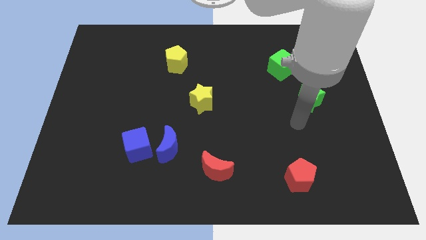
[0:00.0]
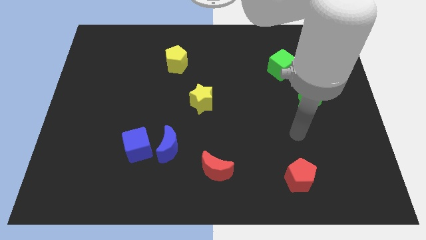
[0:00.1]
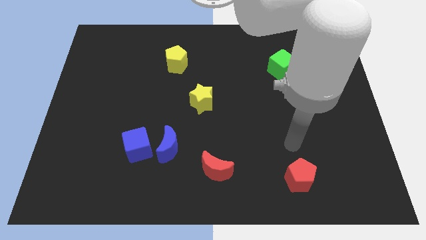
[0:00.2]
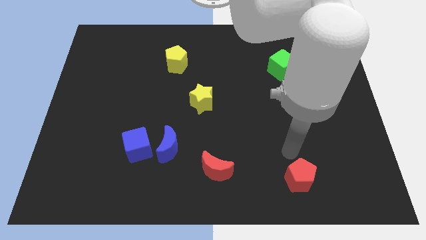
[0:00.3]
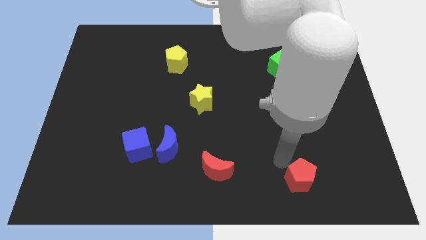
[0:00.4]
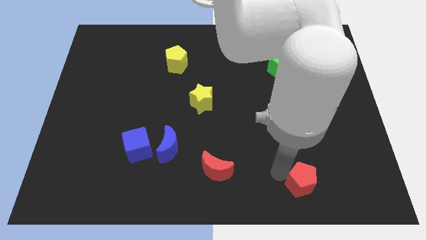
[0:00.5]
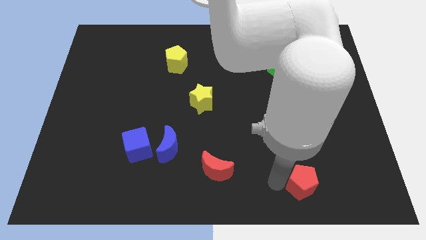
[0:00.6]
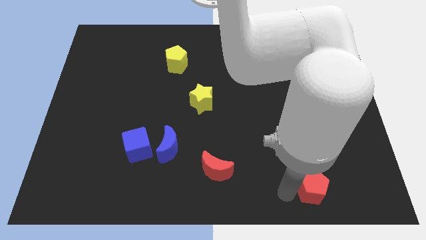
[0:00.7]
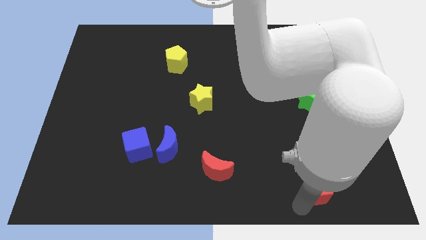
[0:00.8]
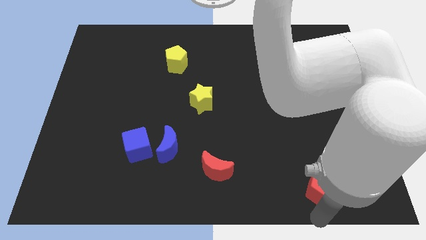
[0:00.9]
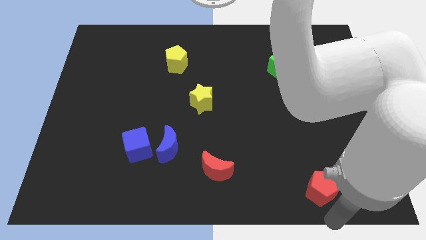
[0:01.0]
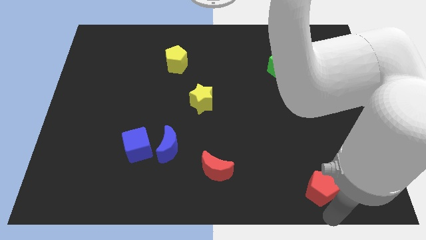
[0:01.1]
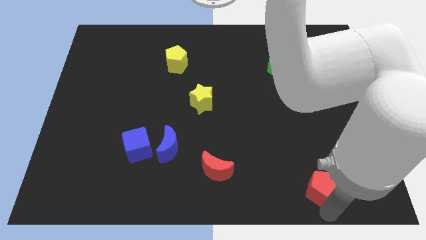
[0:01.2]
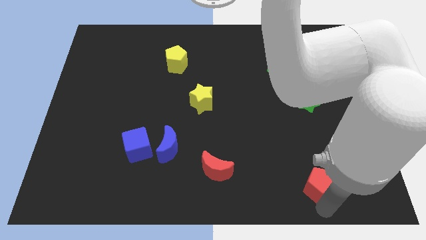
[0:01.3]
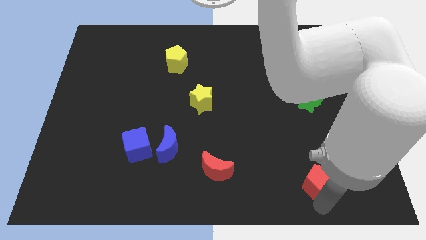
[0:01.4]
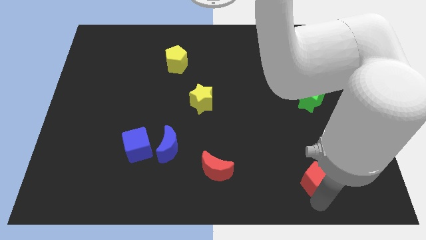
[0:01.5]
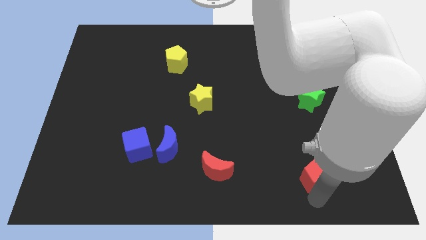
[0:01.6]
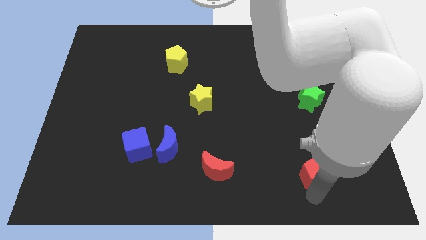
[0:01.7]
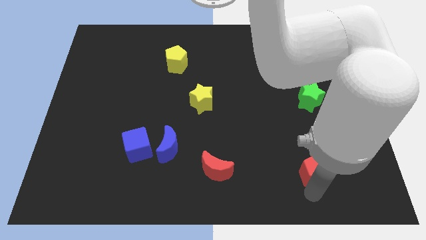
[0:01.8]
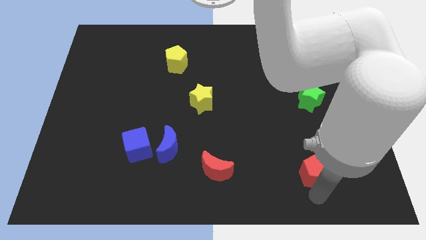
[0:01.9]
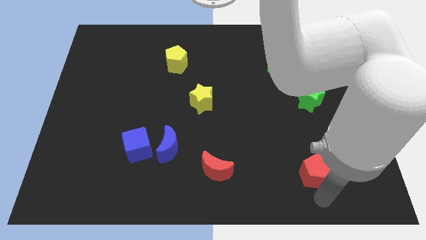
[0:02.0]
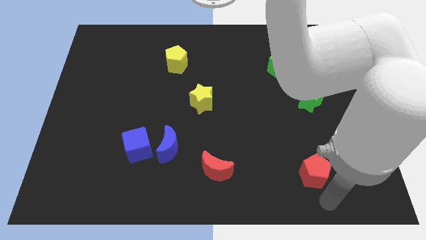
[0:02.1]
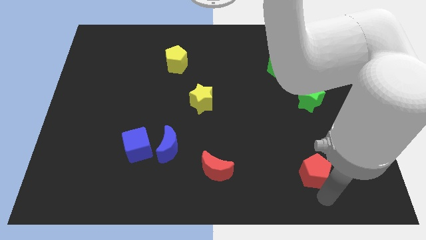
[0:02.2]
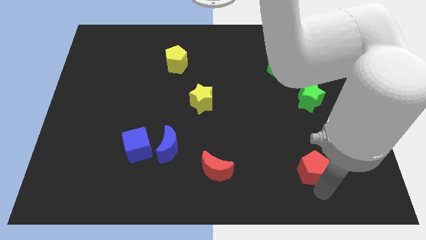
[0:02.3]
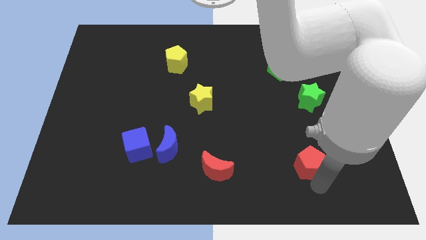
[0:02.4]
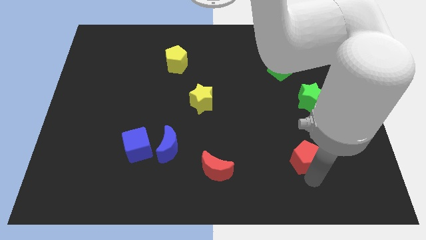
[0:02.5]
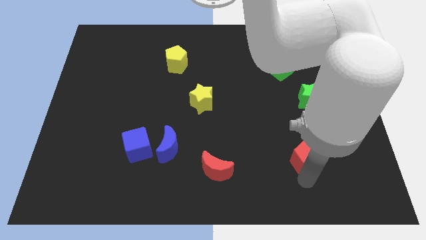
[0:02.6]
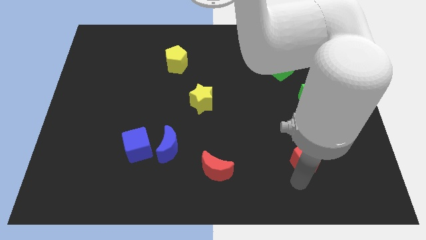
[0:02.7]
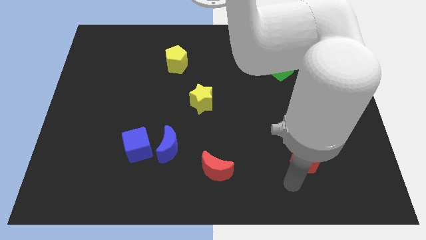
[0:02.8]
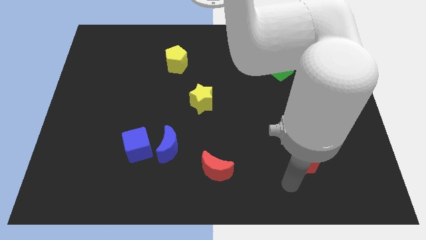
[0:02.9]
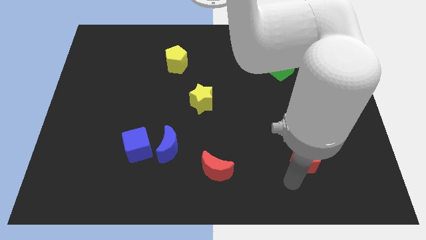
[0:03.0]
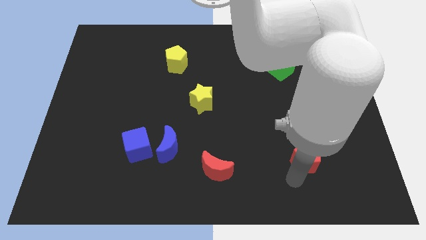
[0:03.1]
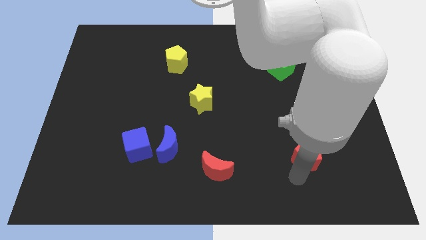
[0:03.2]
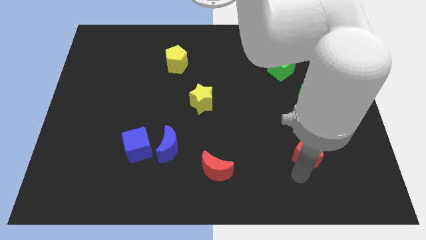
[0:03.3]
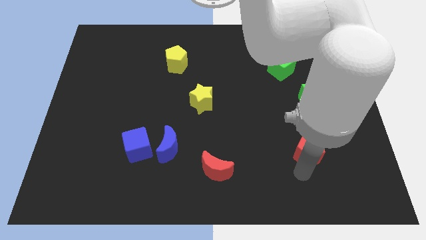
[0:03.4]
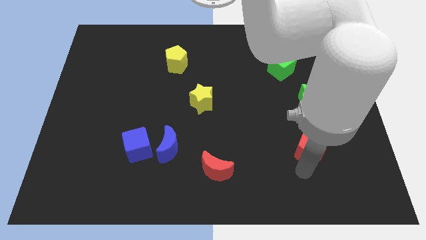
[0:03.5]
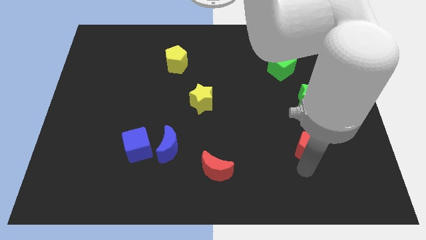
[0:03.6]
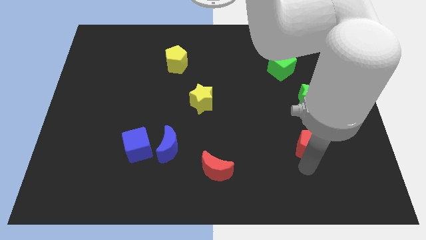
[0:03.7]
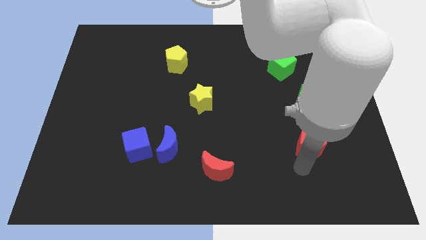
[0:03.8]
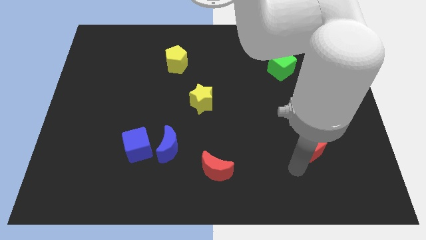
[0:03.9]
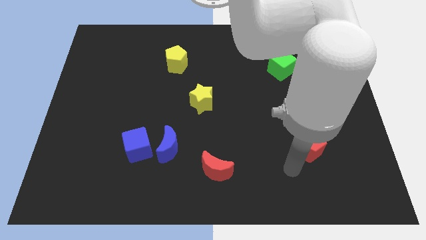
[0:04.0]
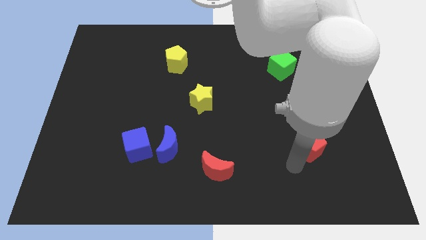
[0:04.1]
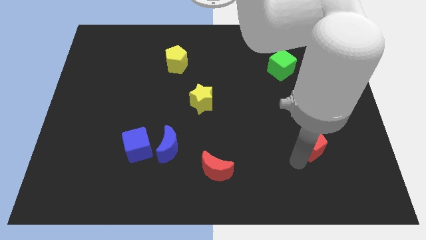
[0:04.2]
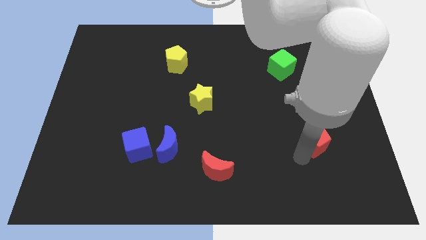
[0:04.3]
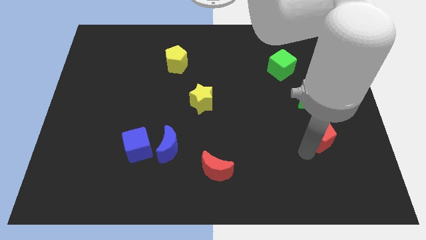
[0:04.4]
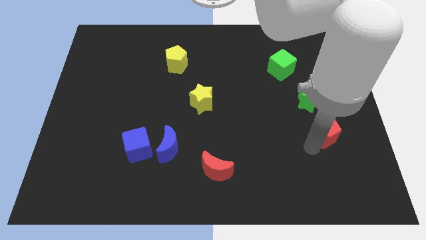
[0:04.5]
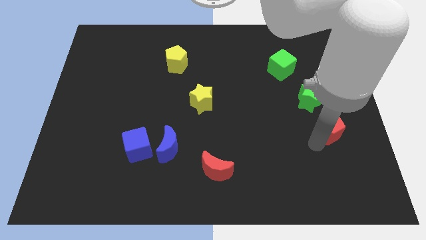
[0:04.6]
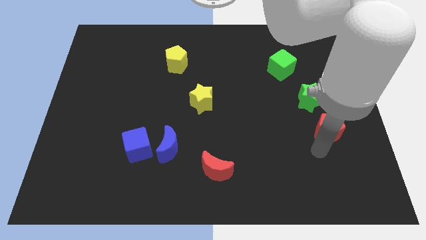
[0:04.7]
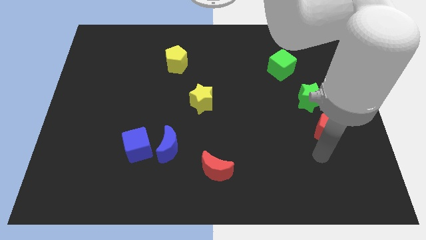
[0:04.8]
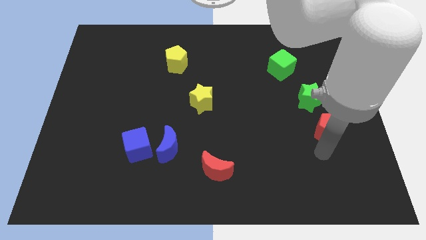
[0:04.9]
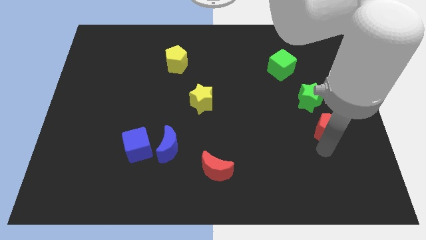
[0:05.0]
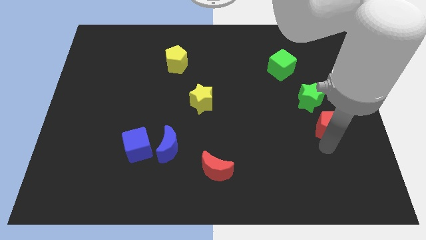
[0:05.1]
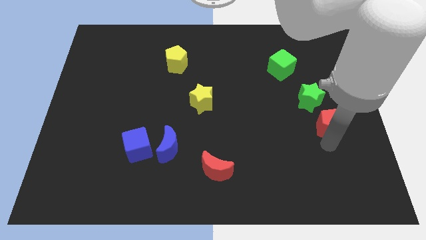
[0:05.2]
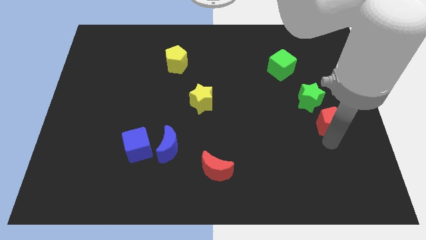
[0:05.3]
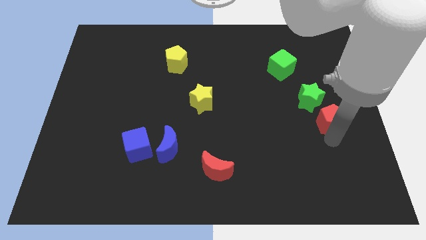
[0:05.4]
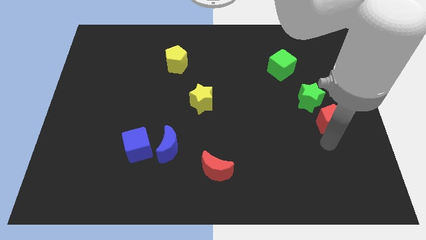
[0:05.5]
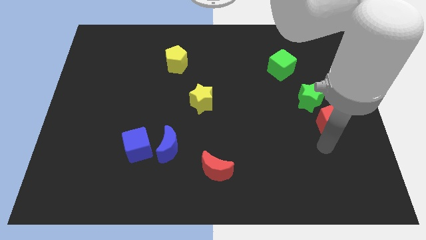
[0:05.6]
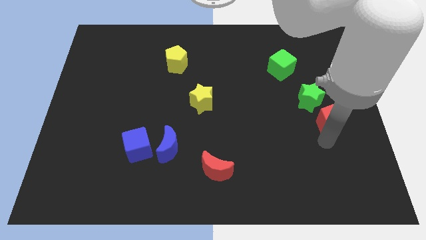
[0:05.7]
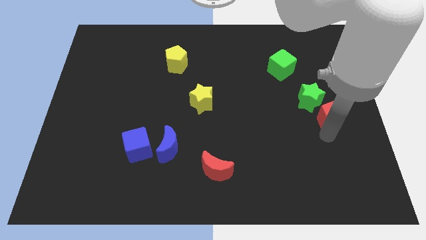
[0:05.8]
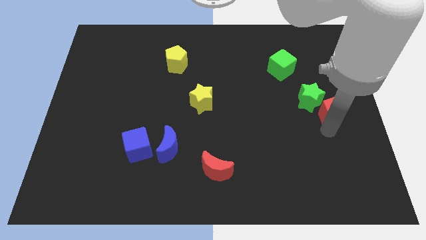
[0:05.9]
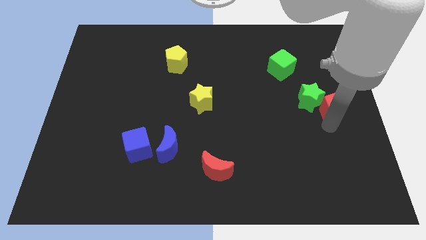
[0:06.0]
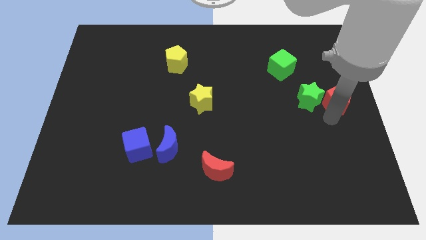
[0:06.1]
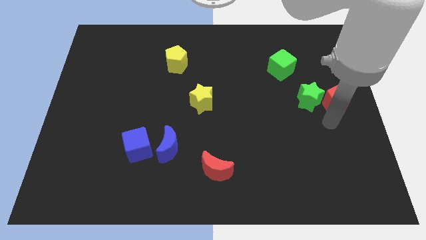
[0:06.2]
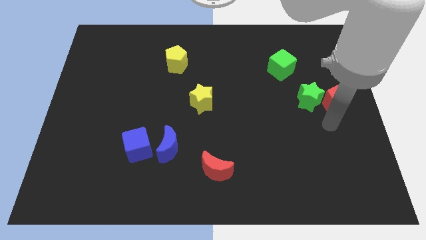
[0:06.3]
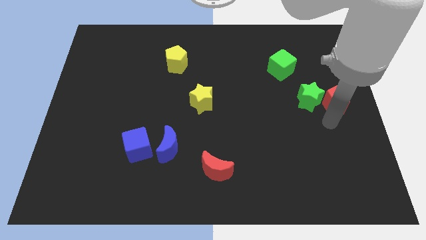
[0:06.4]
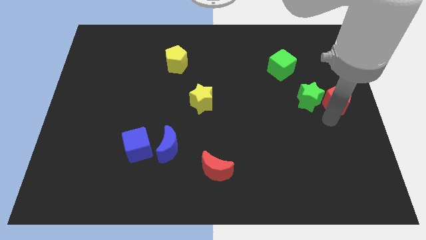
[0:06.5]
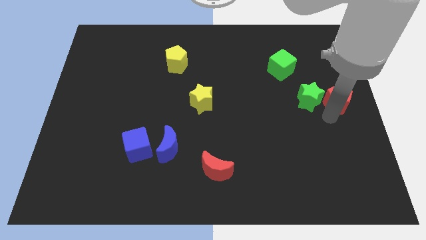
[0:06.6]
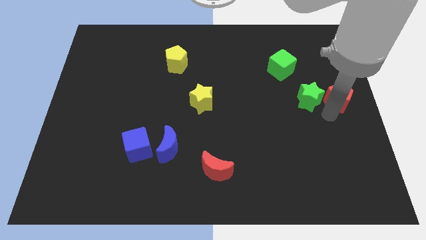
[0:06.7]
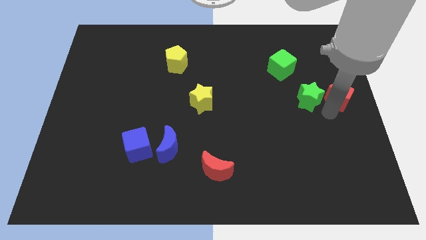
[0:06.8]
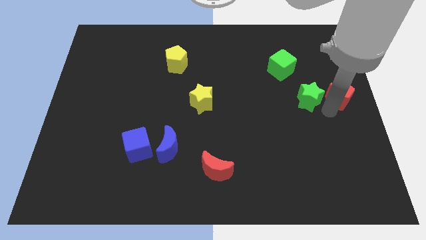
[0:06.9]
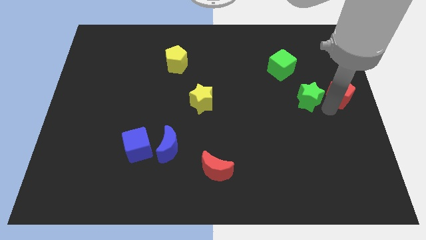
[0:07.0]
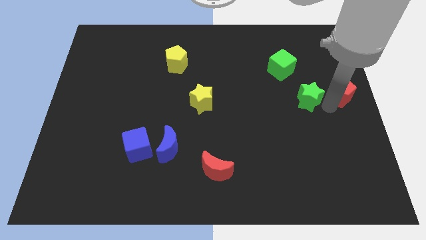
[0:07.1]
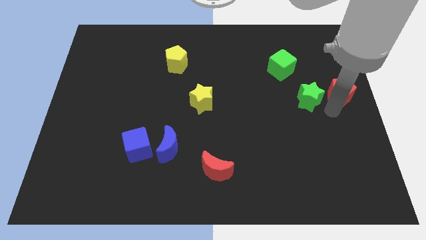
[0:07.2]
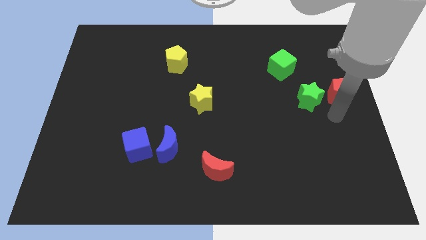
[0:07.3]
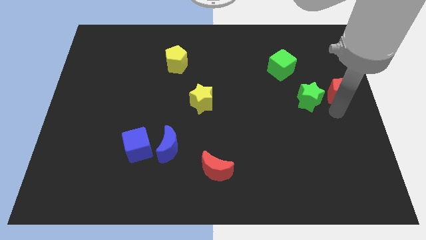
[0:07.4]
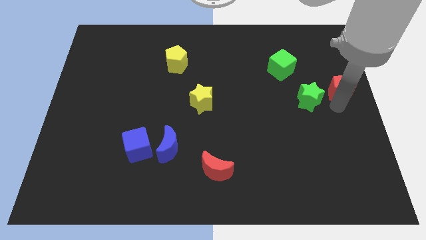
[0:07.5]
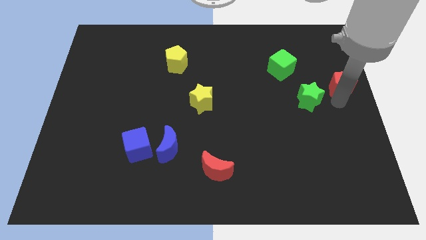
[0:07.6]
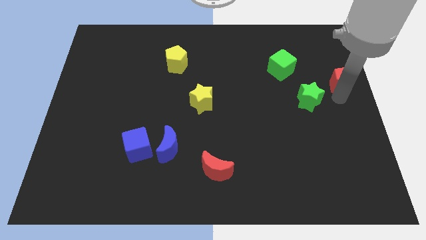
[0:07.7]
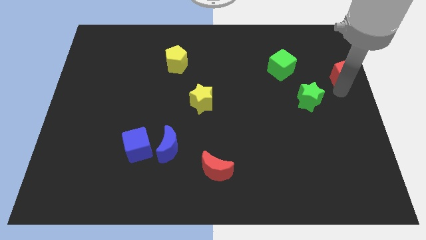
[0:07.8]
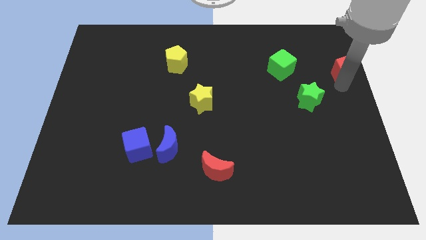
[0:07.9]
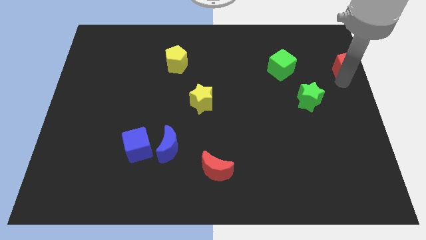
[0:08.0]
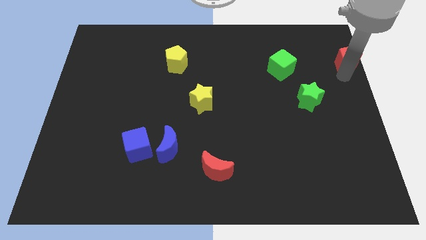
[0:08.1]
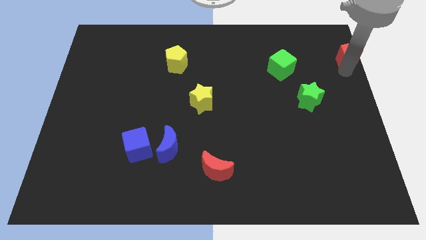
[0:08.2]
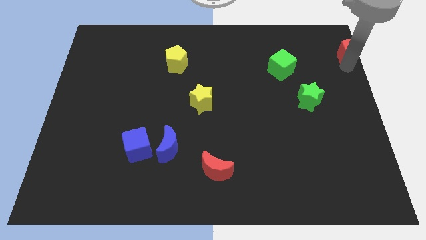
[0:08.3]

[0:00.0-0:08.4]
move the red pentagon to the top right corner
